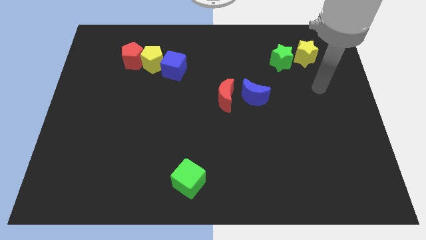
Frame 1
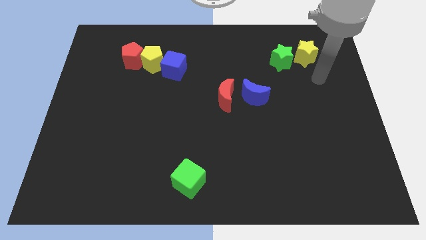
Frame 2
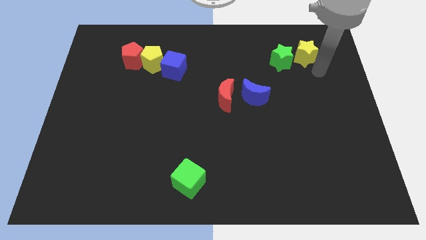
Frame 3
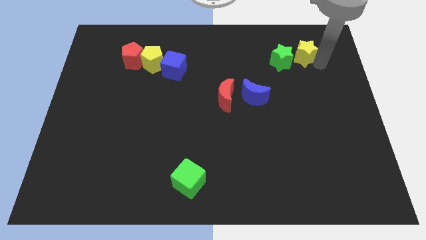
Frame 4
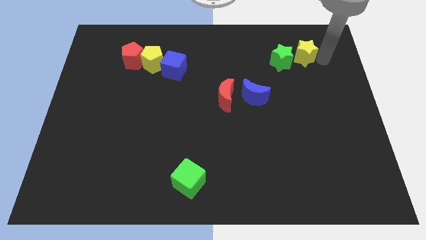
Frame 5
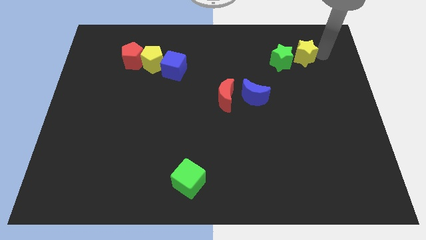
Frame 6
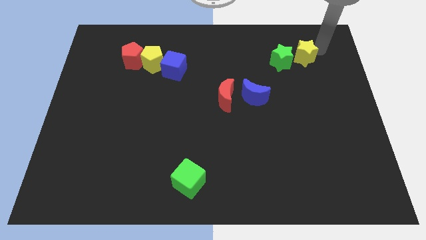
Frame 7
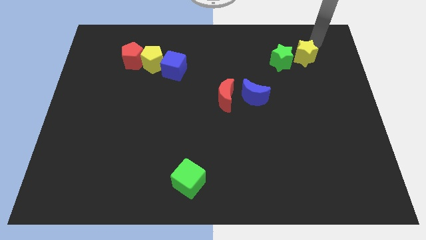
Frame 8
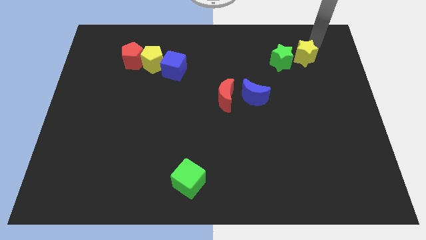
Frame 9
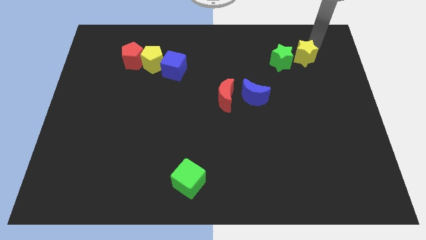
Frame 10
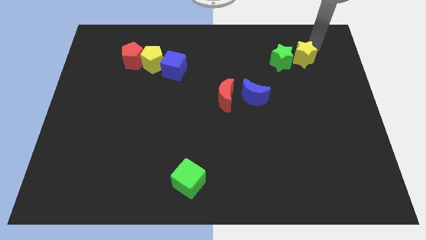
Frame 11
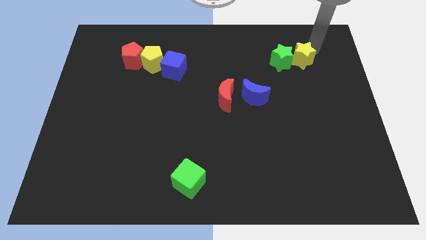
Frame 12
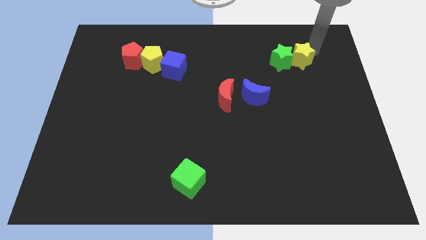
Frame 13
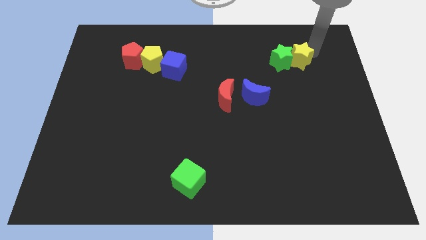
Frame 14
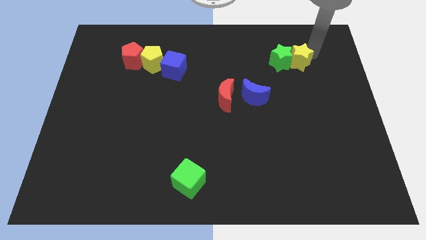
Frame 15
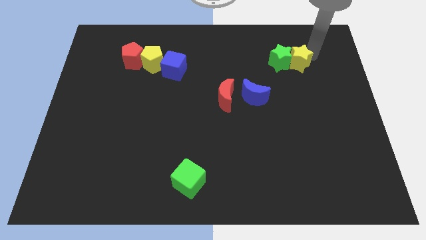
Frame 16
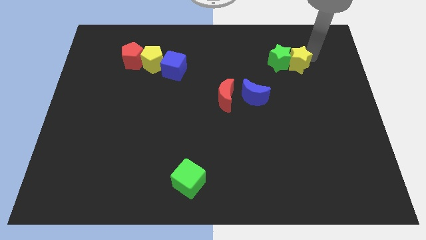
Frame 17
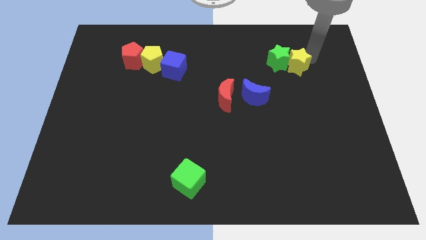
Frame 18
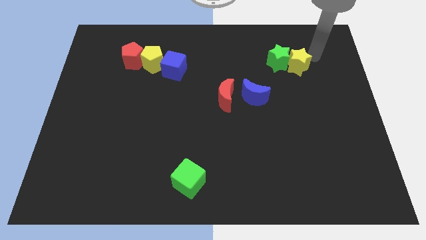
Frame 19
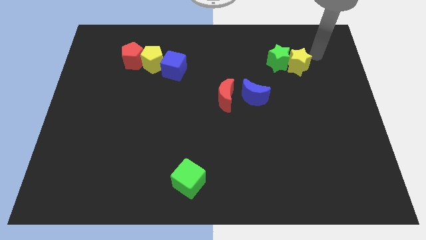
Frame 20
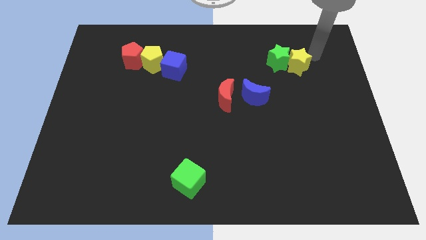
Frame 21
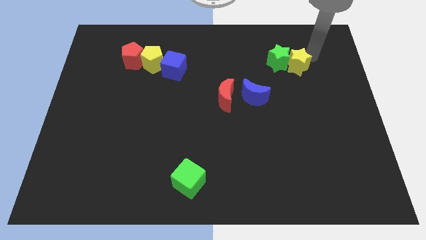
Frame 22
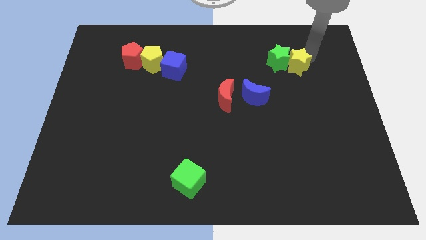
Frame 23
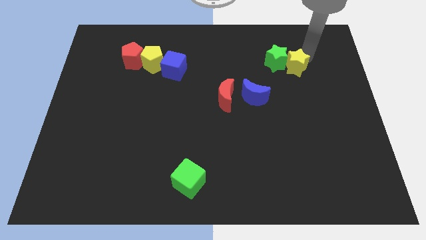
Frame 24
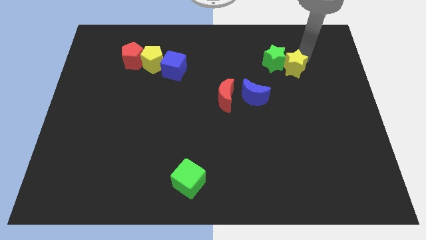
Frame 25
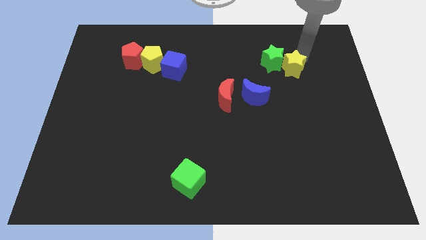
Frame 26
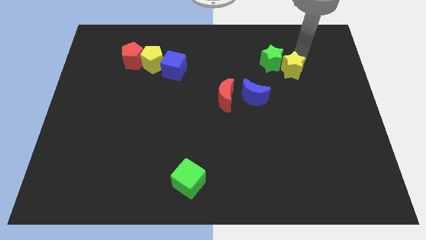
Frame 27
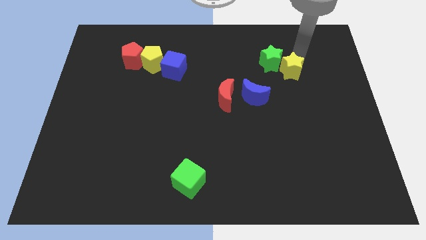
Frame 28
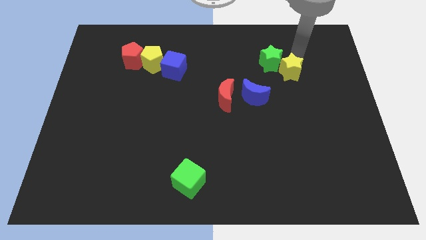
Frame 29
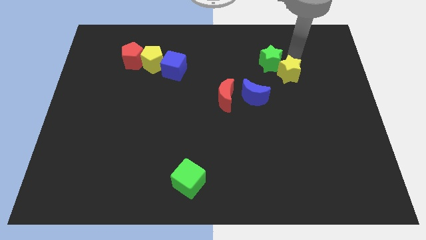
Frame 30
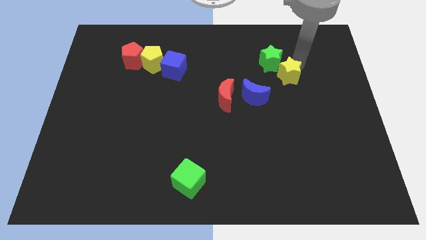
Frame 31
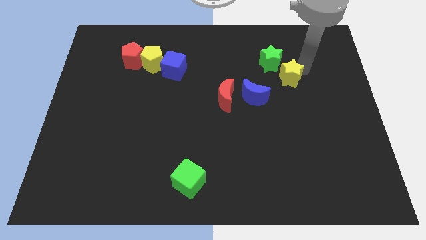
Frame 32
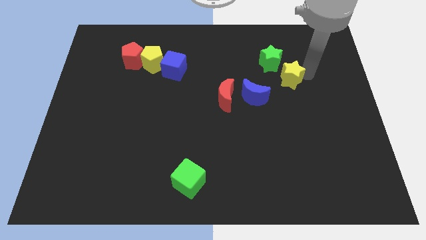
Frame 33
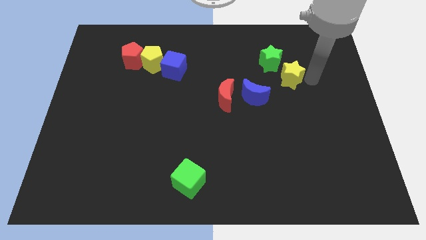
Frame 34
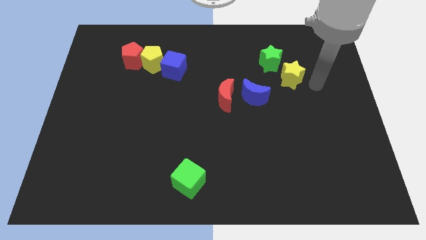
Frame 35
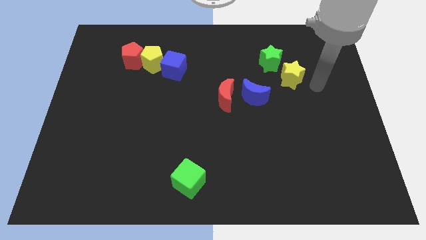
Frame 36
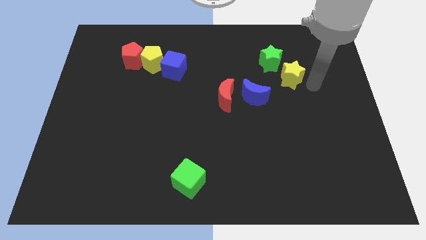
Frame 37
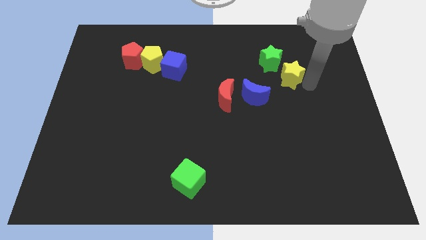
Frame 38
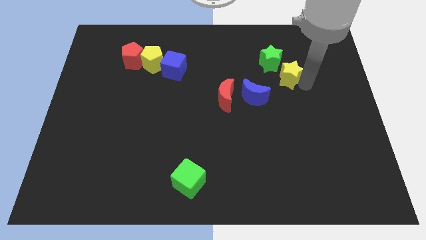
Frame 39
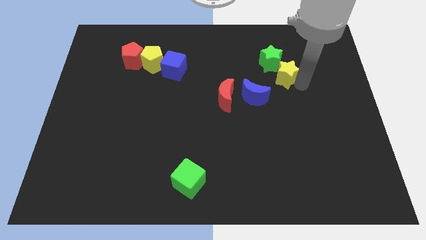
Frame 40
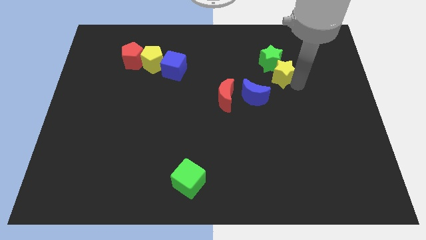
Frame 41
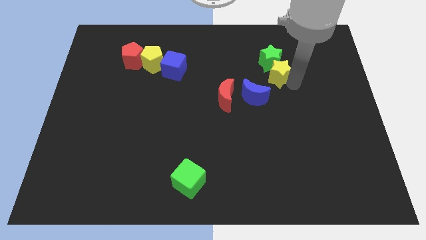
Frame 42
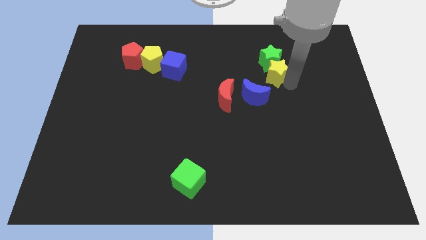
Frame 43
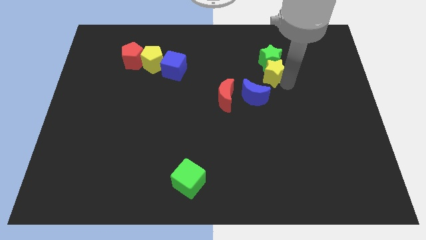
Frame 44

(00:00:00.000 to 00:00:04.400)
move the yellow star to the left a little

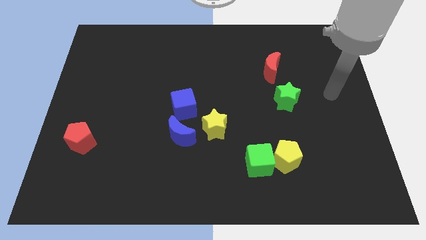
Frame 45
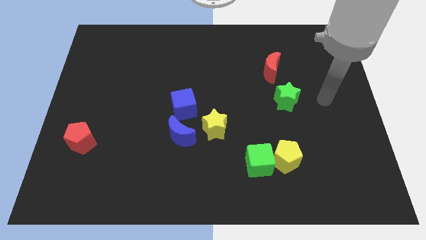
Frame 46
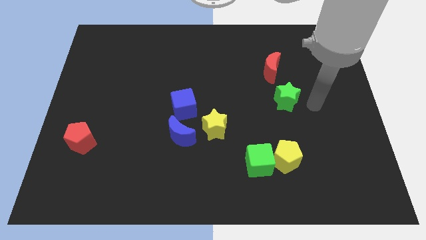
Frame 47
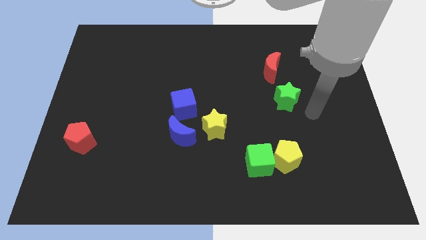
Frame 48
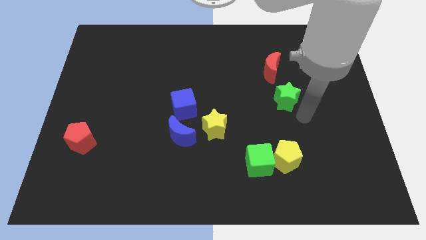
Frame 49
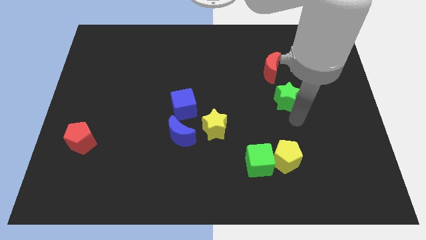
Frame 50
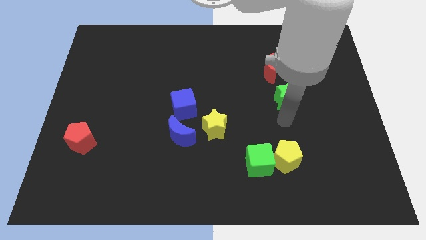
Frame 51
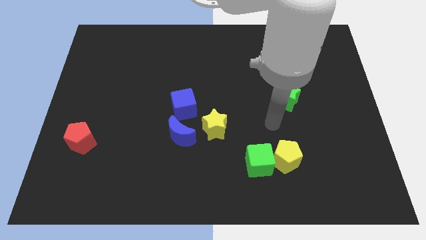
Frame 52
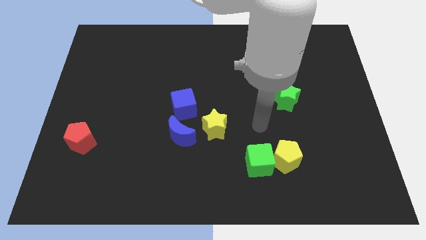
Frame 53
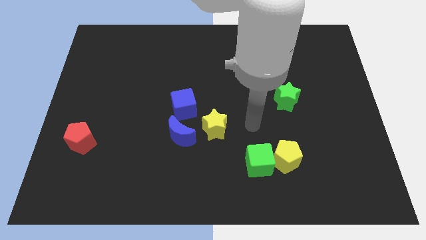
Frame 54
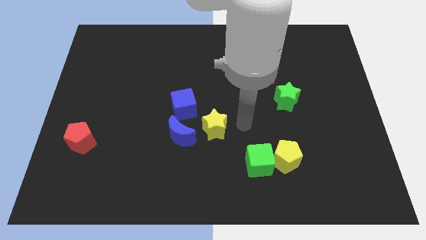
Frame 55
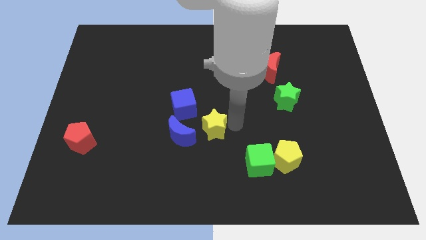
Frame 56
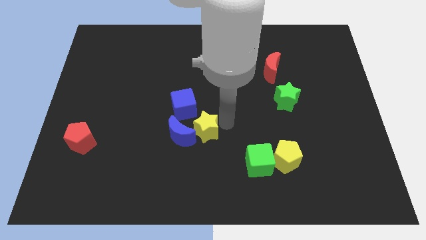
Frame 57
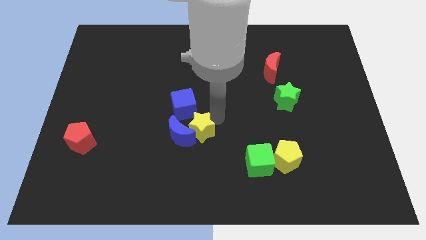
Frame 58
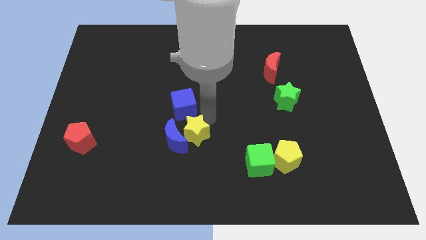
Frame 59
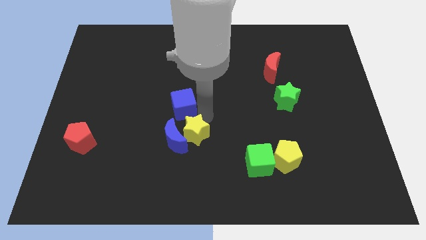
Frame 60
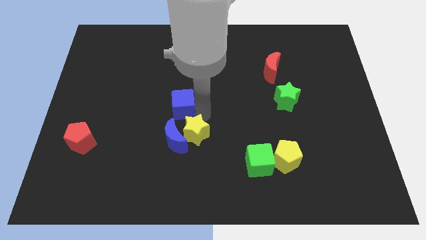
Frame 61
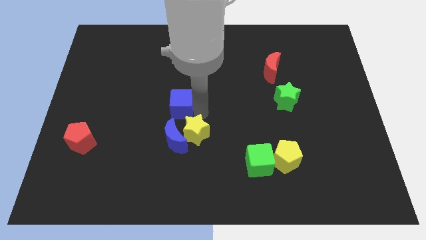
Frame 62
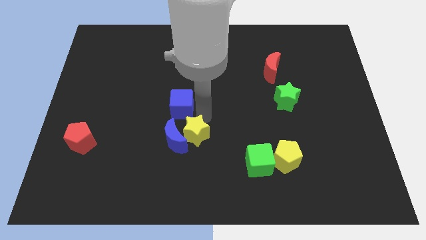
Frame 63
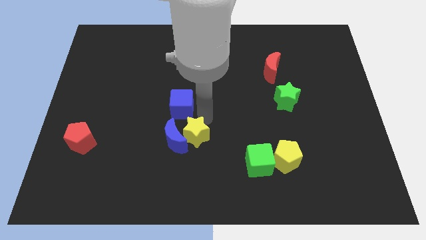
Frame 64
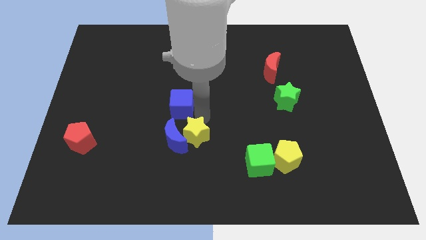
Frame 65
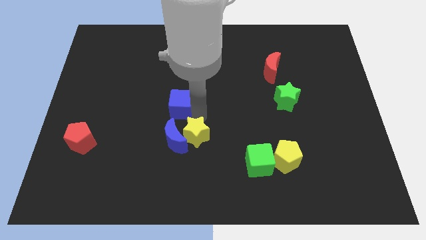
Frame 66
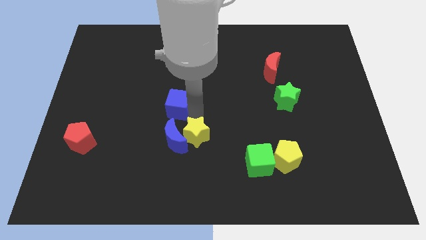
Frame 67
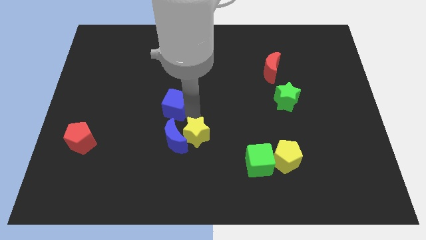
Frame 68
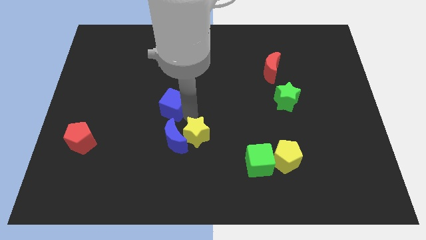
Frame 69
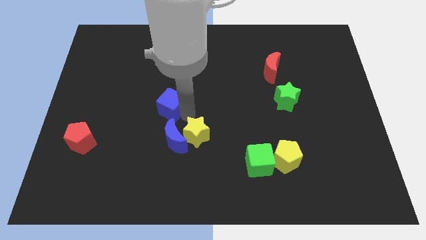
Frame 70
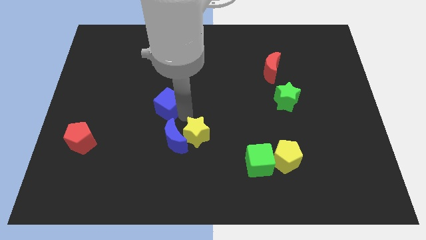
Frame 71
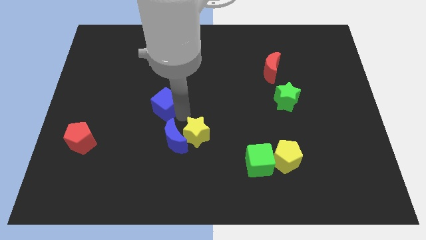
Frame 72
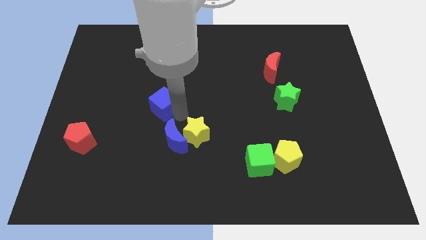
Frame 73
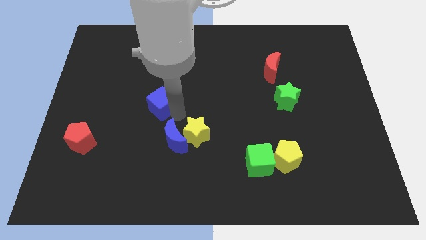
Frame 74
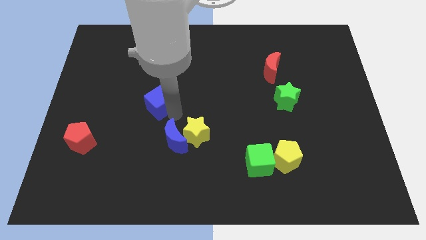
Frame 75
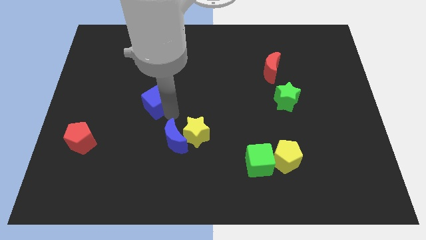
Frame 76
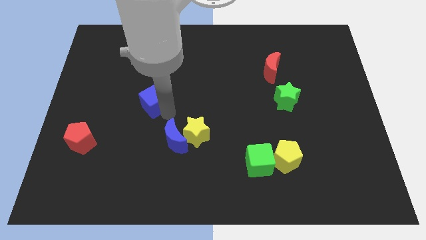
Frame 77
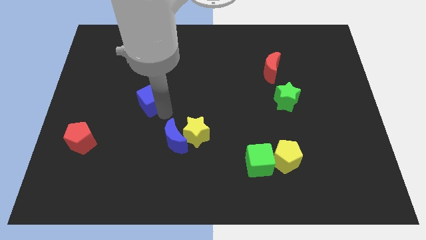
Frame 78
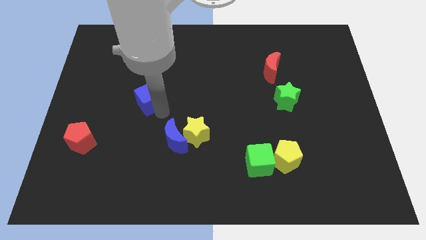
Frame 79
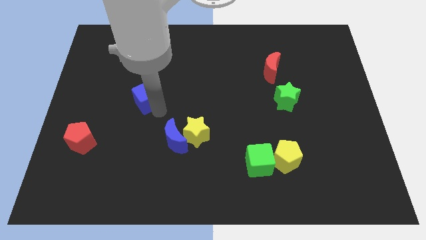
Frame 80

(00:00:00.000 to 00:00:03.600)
slightly slide the blue cube up and to the left
